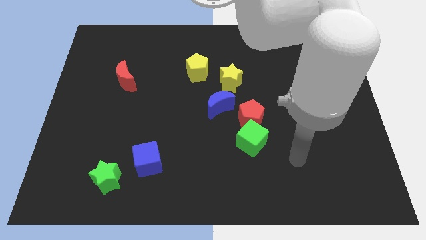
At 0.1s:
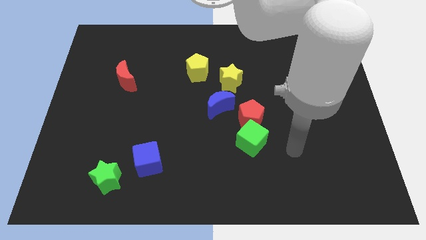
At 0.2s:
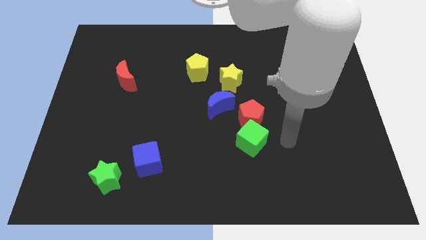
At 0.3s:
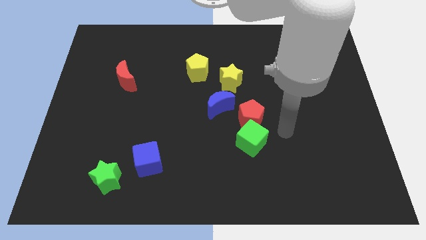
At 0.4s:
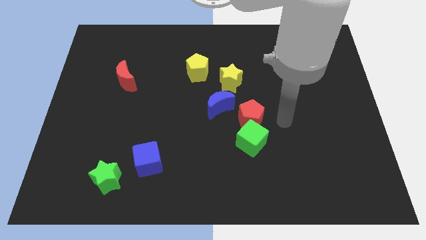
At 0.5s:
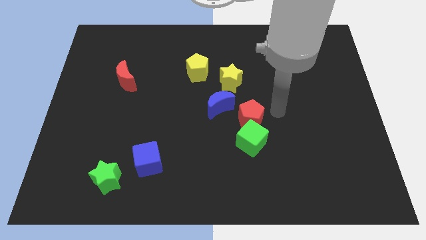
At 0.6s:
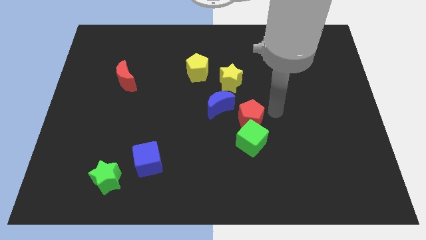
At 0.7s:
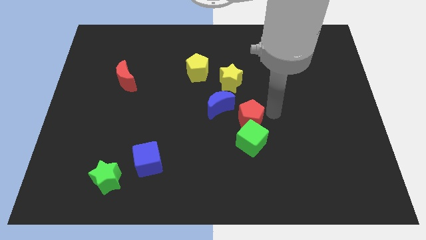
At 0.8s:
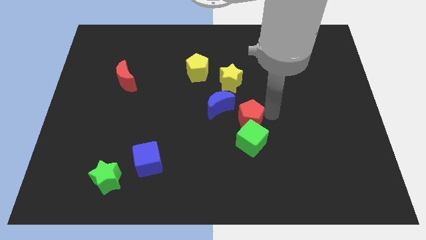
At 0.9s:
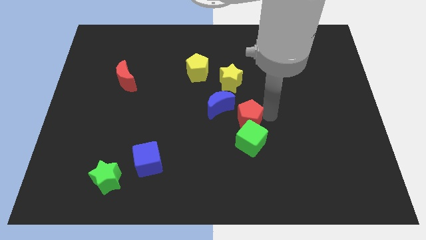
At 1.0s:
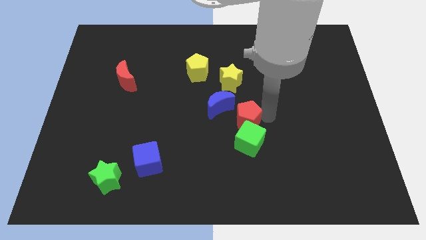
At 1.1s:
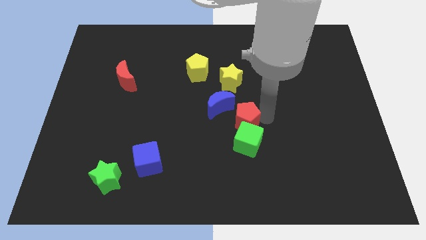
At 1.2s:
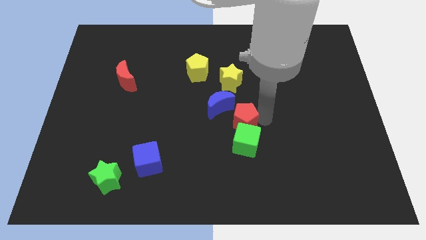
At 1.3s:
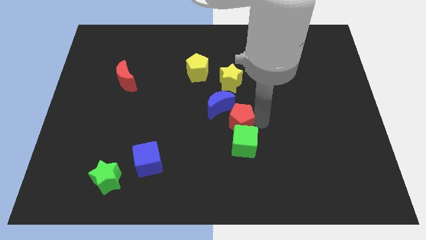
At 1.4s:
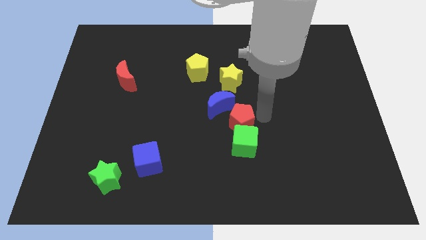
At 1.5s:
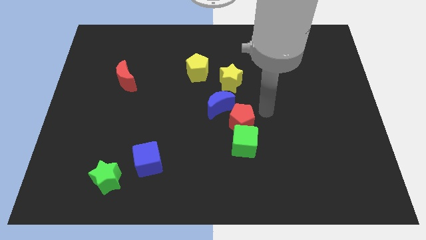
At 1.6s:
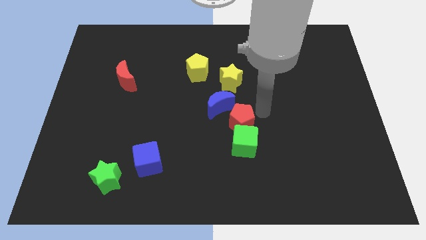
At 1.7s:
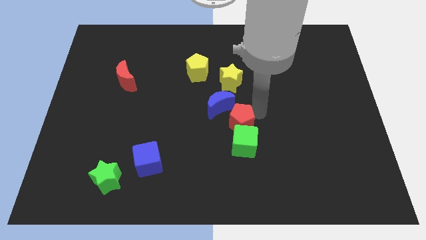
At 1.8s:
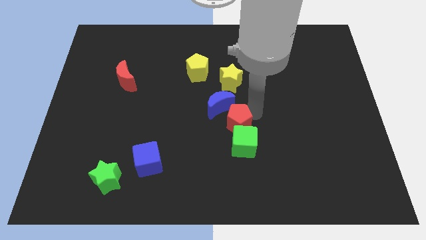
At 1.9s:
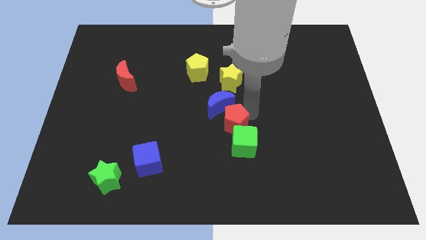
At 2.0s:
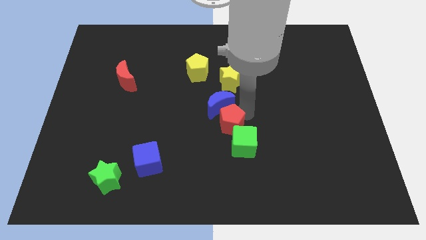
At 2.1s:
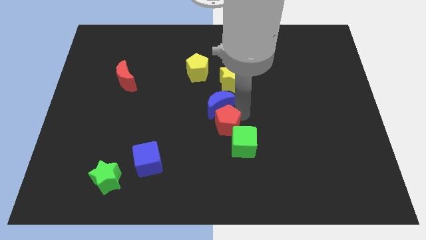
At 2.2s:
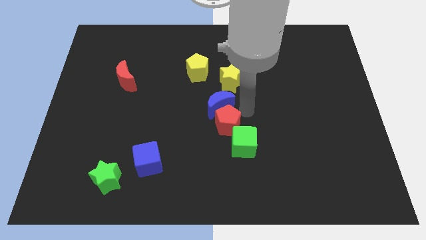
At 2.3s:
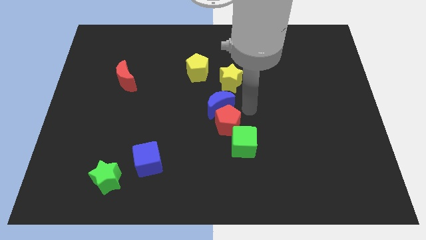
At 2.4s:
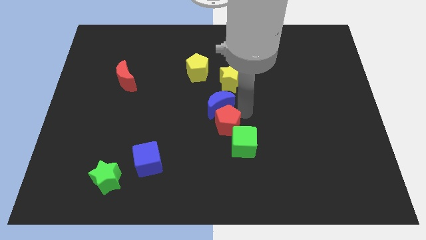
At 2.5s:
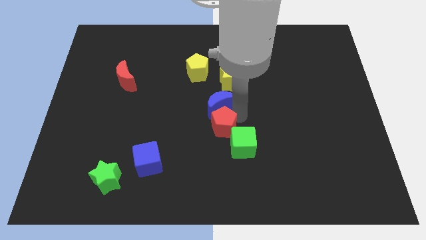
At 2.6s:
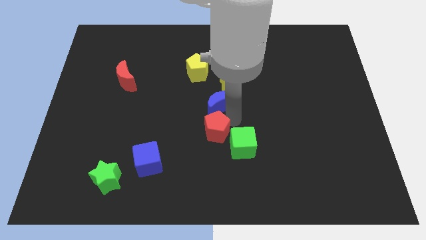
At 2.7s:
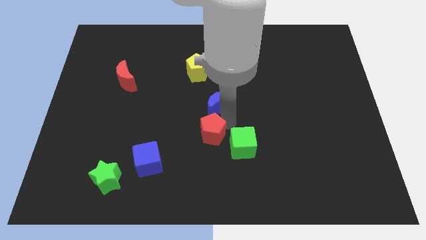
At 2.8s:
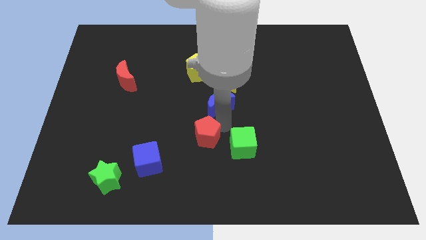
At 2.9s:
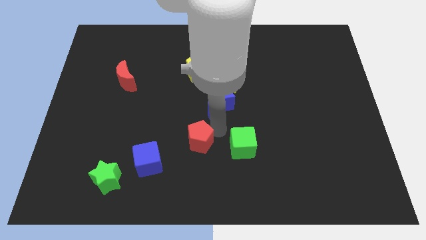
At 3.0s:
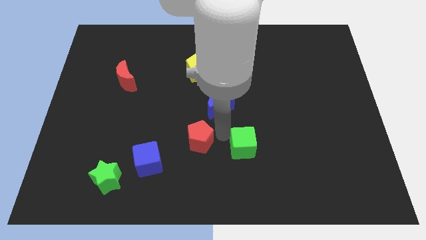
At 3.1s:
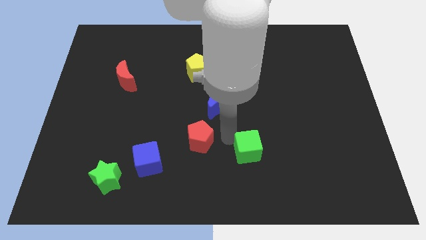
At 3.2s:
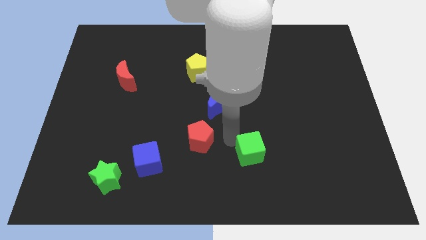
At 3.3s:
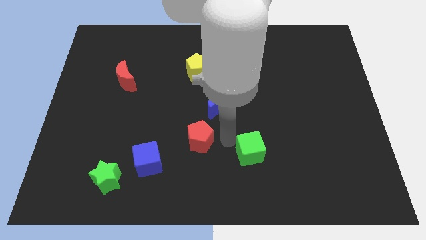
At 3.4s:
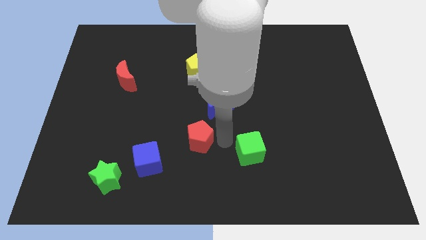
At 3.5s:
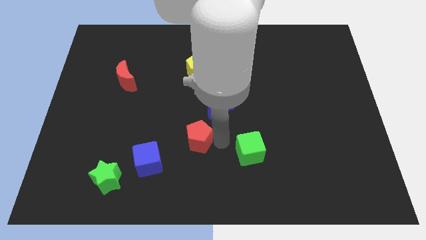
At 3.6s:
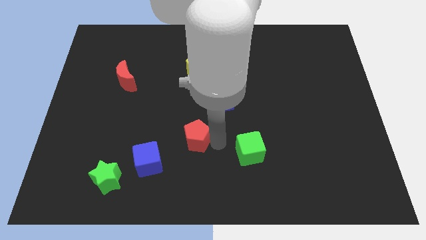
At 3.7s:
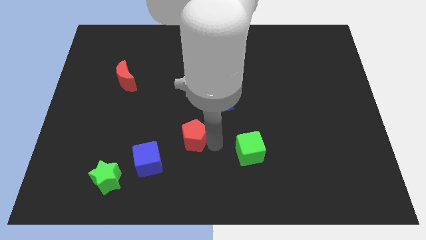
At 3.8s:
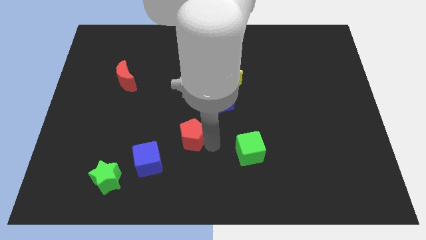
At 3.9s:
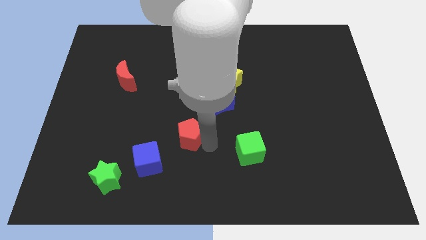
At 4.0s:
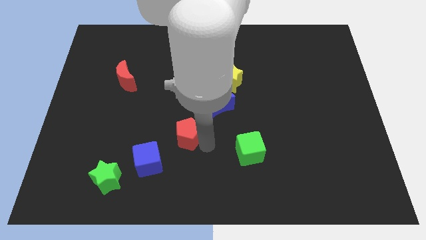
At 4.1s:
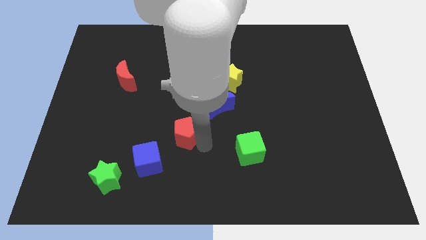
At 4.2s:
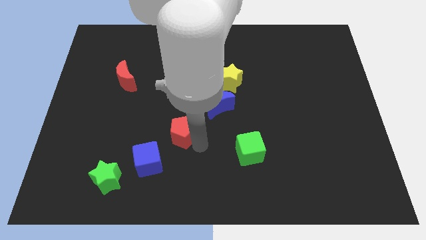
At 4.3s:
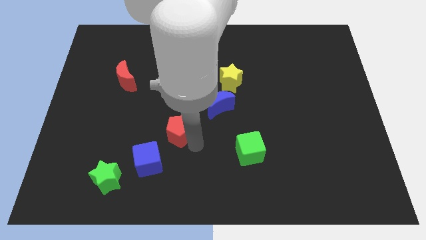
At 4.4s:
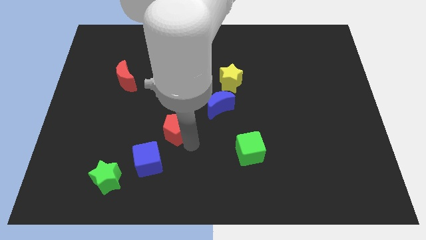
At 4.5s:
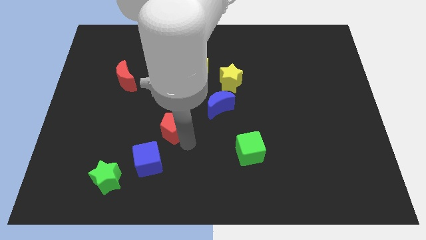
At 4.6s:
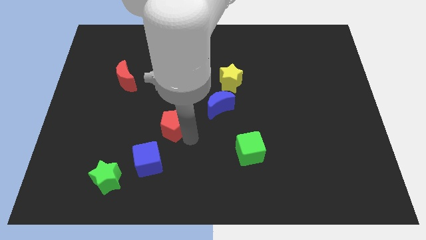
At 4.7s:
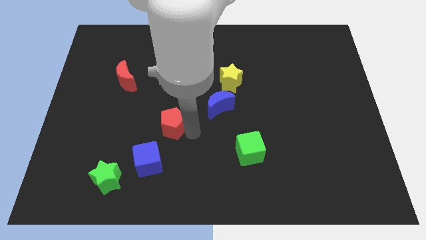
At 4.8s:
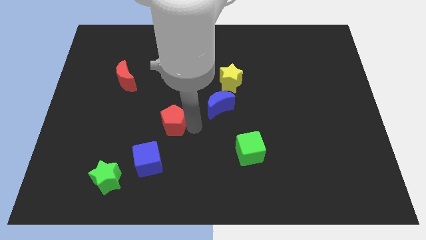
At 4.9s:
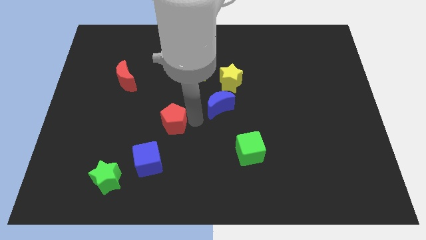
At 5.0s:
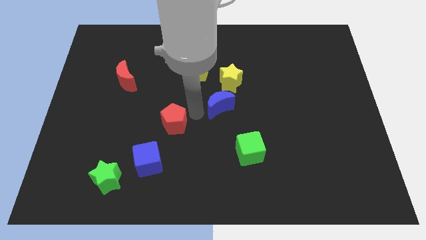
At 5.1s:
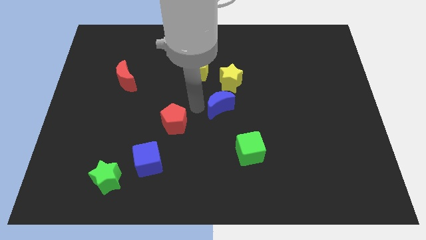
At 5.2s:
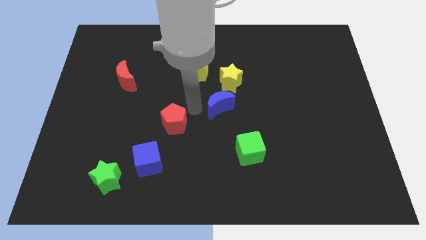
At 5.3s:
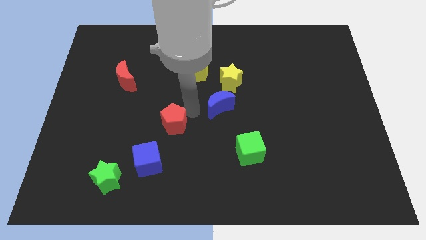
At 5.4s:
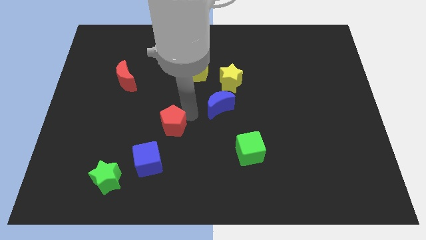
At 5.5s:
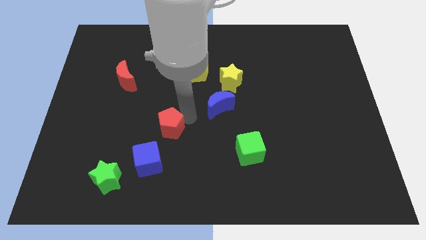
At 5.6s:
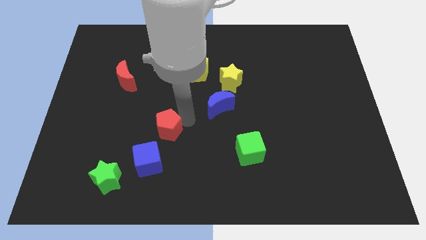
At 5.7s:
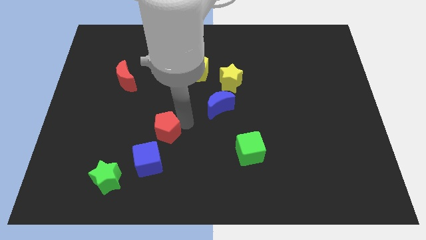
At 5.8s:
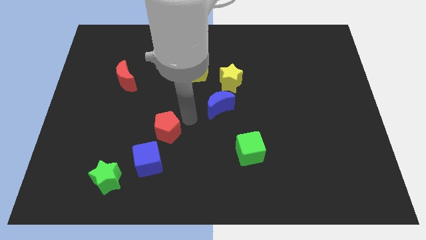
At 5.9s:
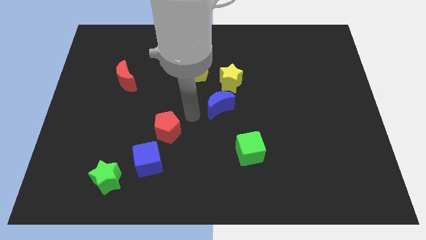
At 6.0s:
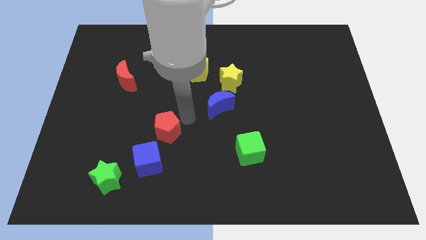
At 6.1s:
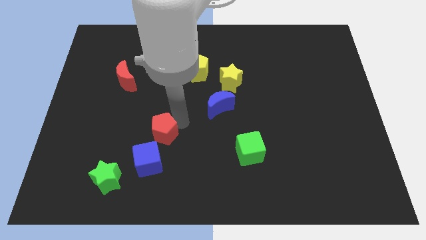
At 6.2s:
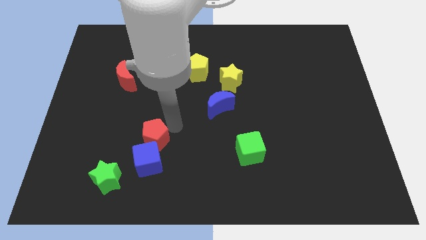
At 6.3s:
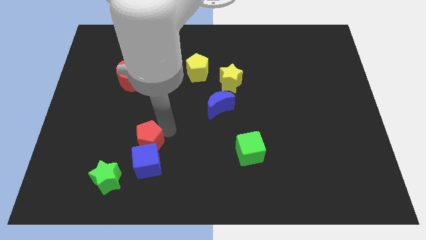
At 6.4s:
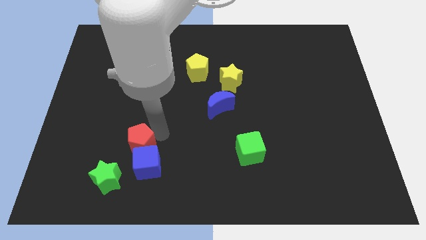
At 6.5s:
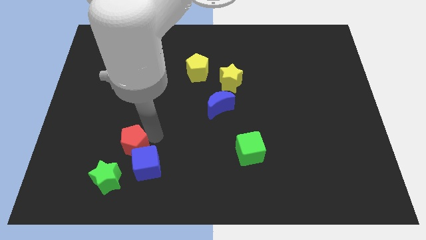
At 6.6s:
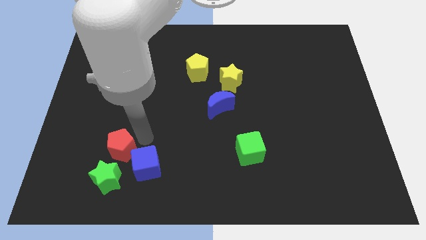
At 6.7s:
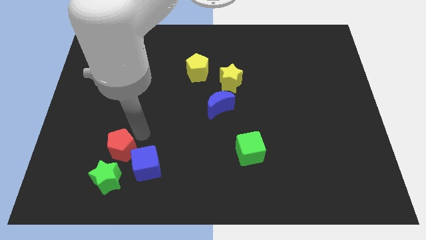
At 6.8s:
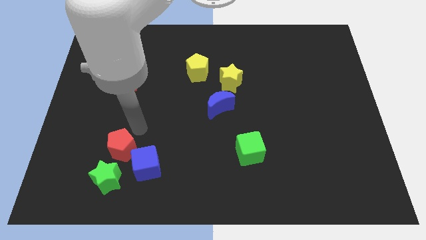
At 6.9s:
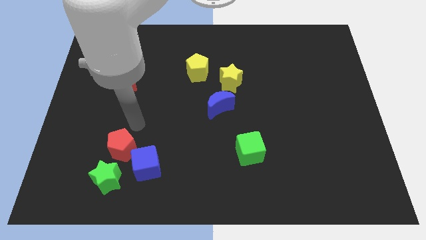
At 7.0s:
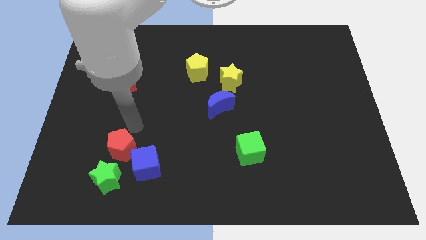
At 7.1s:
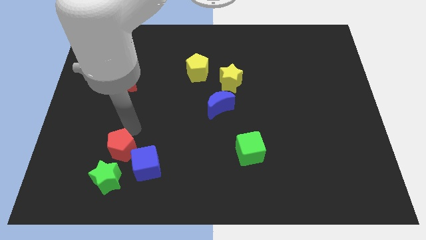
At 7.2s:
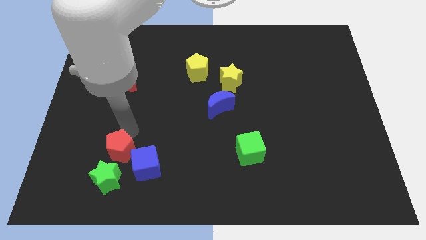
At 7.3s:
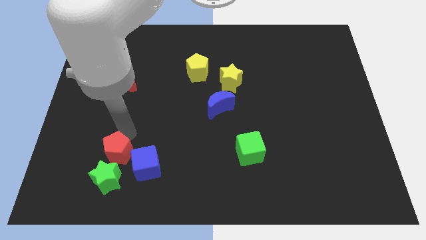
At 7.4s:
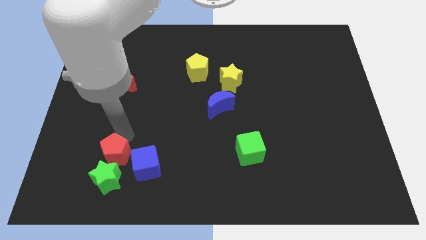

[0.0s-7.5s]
push the red pentagon towards the green star

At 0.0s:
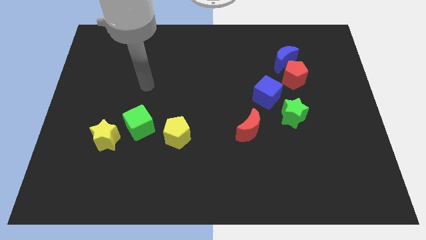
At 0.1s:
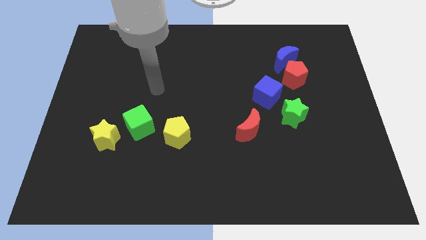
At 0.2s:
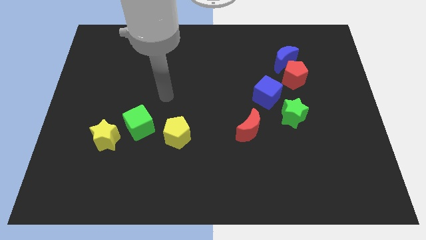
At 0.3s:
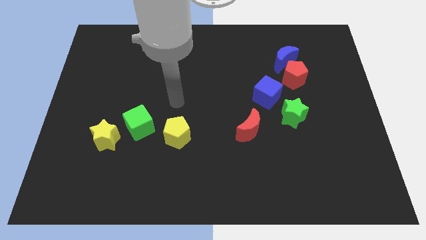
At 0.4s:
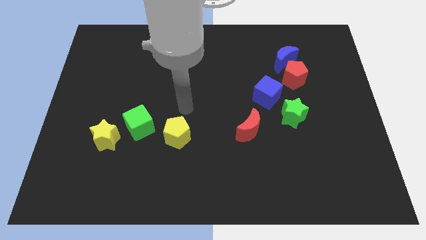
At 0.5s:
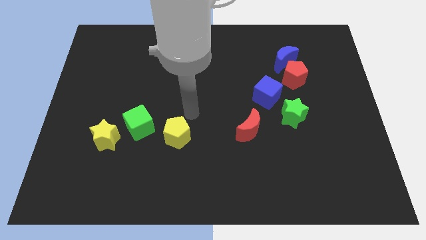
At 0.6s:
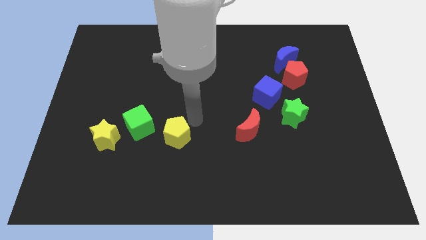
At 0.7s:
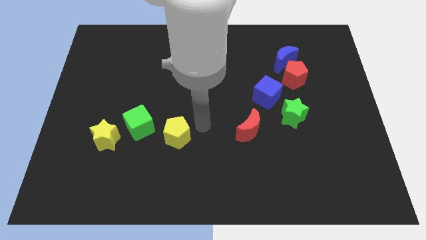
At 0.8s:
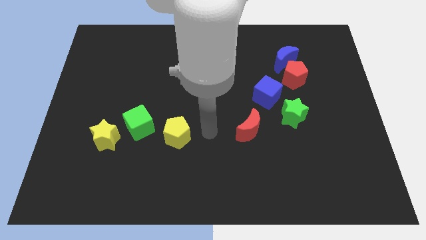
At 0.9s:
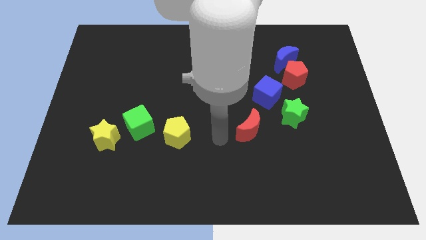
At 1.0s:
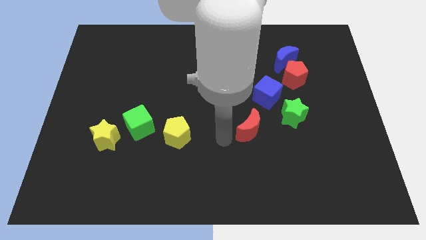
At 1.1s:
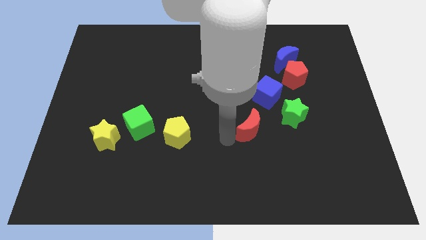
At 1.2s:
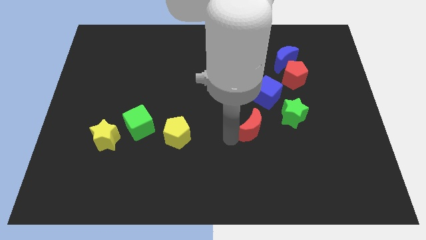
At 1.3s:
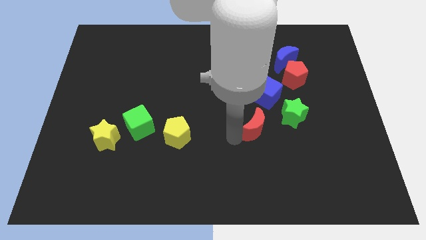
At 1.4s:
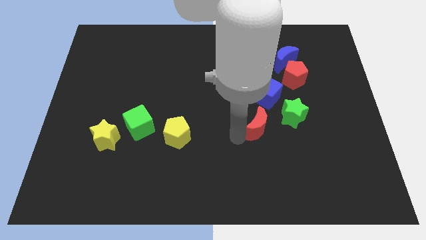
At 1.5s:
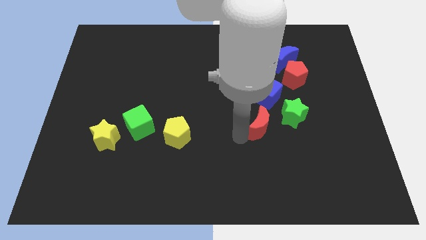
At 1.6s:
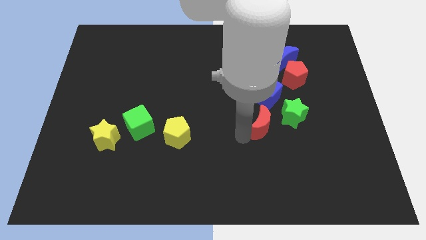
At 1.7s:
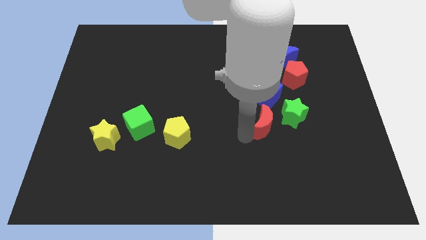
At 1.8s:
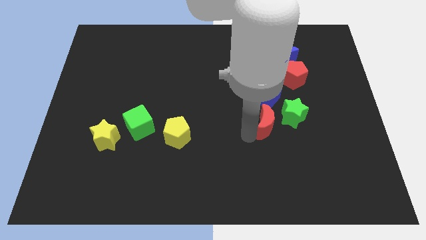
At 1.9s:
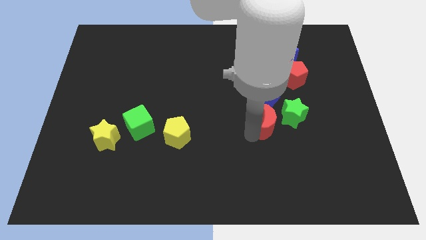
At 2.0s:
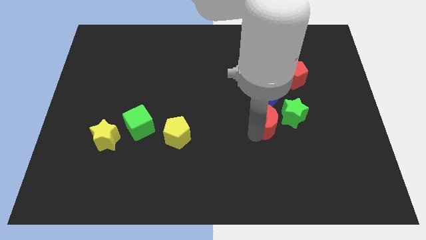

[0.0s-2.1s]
put the red moon to the green star
